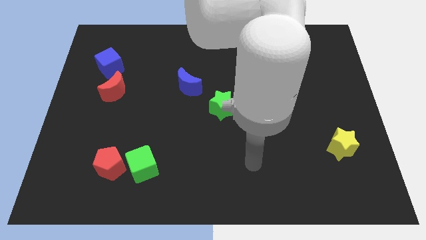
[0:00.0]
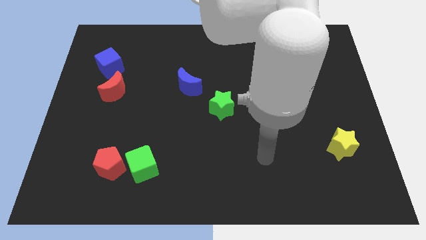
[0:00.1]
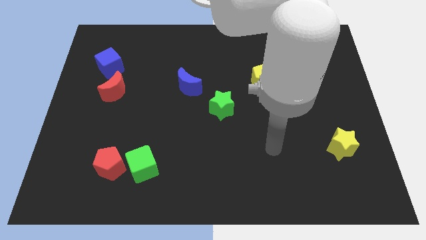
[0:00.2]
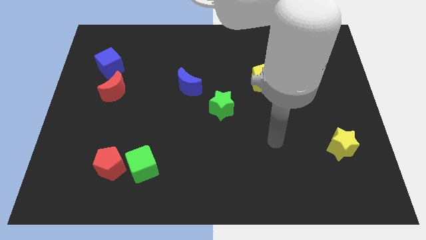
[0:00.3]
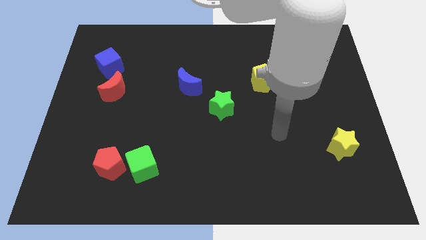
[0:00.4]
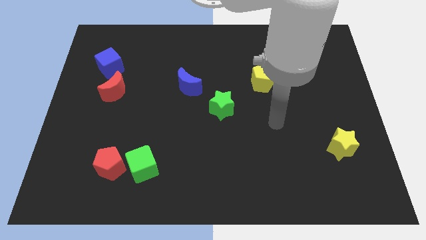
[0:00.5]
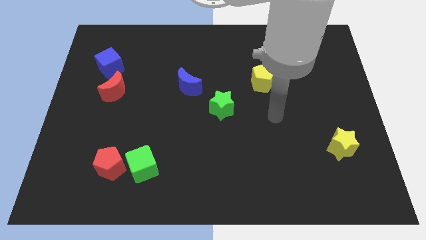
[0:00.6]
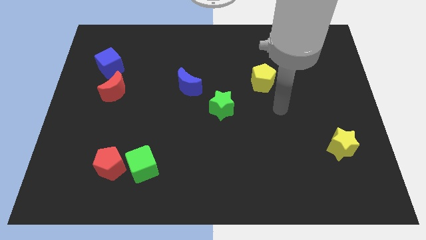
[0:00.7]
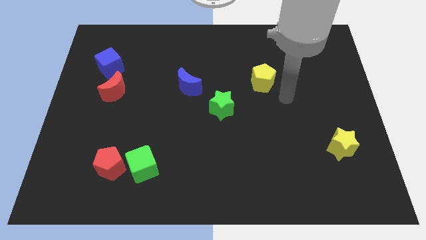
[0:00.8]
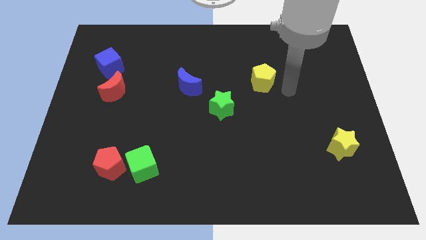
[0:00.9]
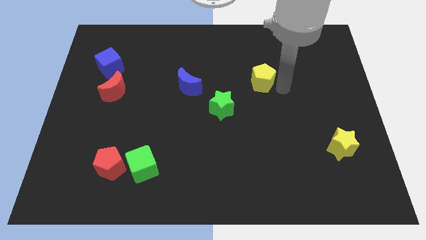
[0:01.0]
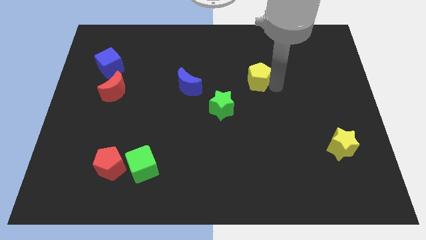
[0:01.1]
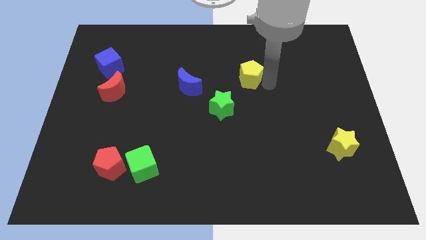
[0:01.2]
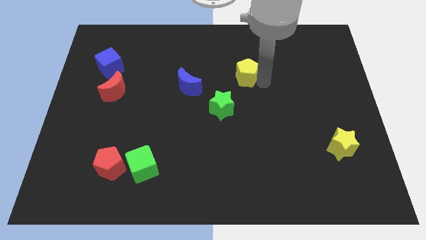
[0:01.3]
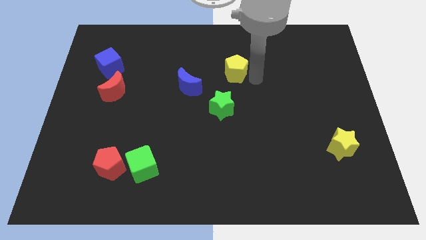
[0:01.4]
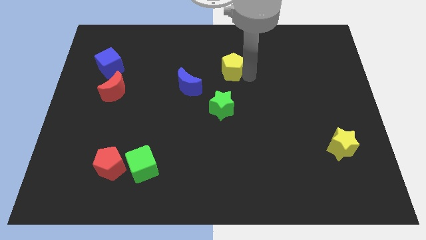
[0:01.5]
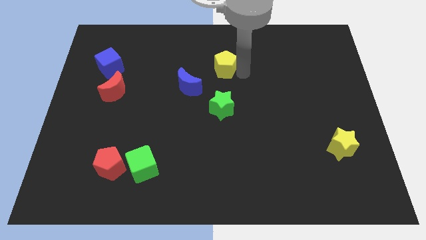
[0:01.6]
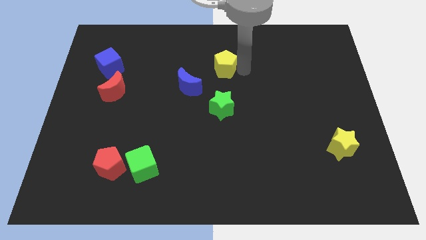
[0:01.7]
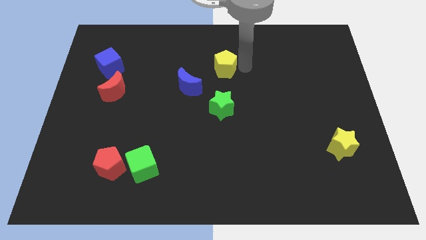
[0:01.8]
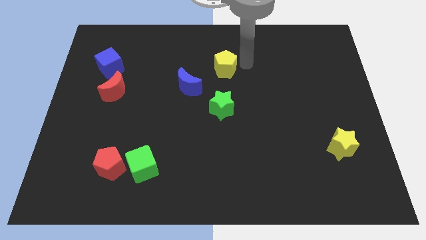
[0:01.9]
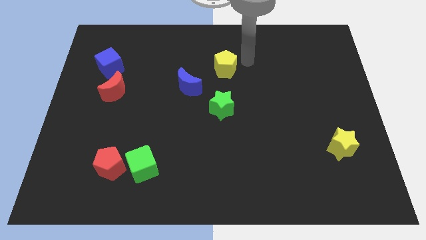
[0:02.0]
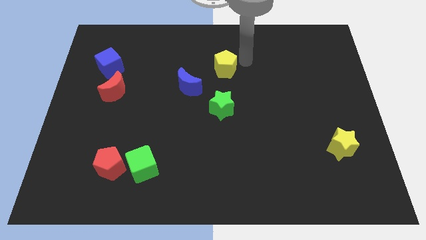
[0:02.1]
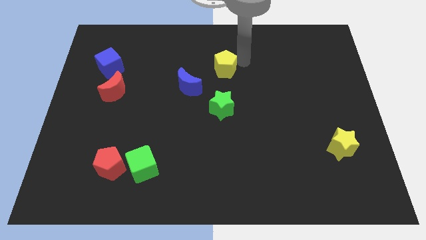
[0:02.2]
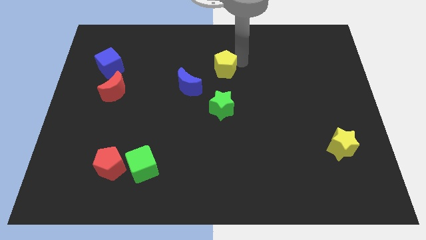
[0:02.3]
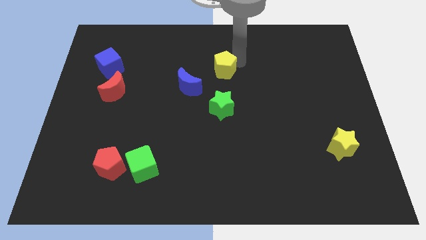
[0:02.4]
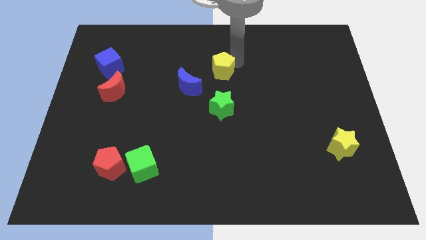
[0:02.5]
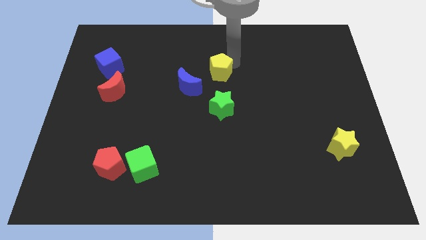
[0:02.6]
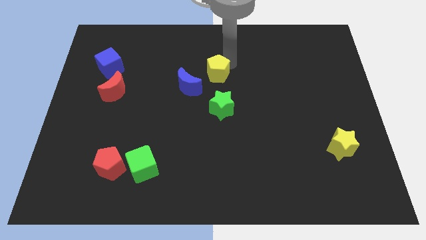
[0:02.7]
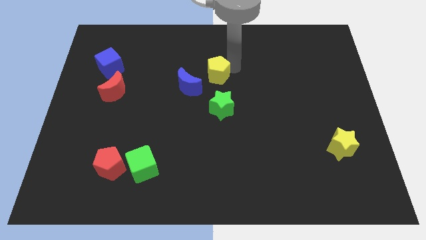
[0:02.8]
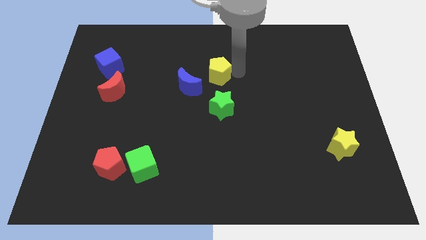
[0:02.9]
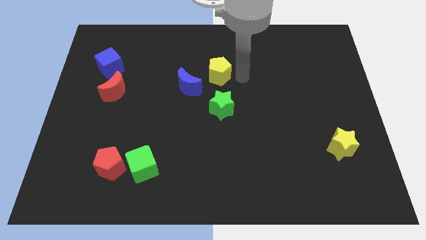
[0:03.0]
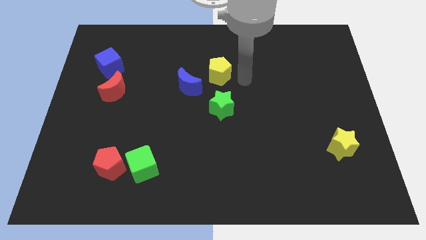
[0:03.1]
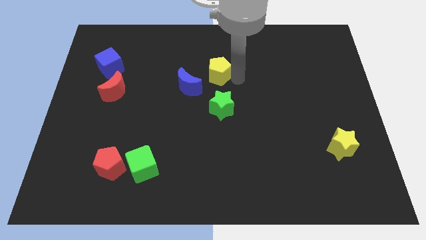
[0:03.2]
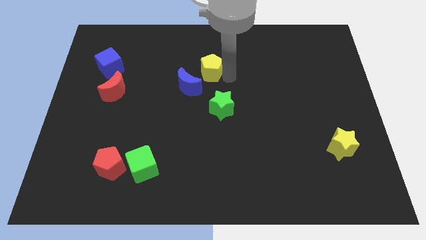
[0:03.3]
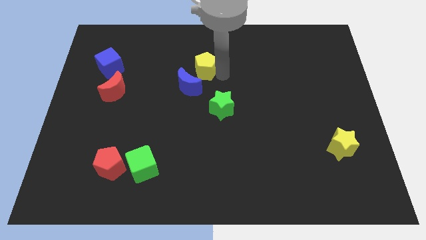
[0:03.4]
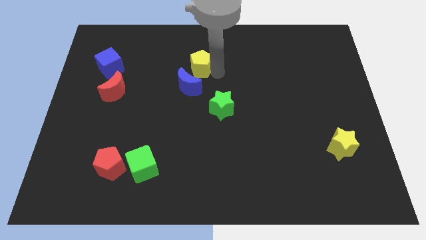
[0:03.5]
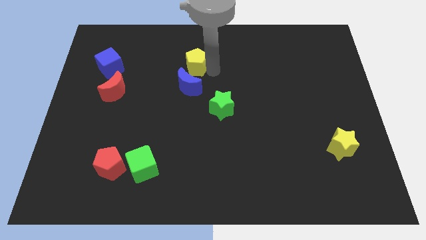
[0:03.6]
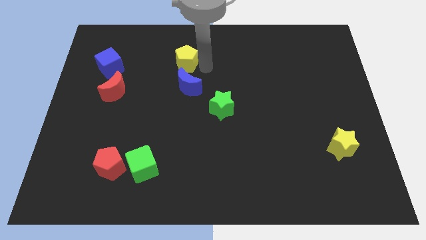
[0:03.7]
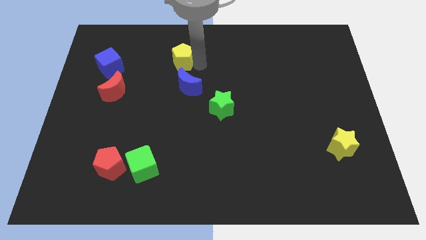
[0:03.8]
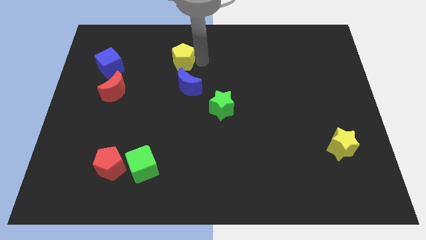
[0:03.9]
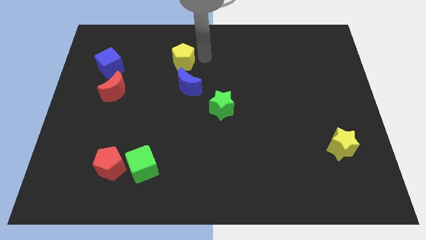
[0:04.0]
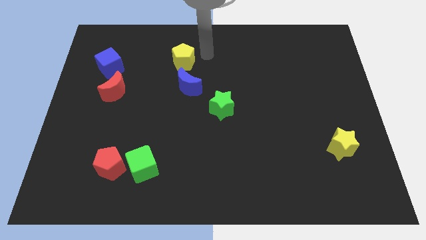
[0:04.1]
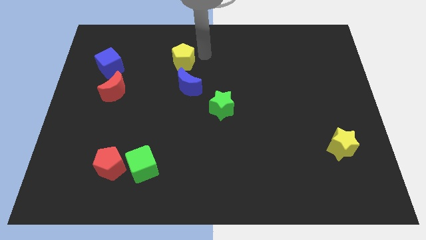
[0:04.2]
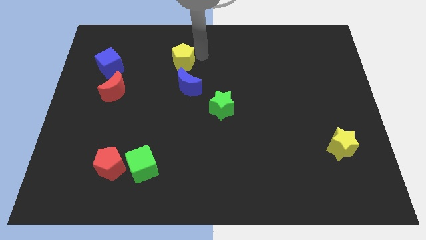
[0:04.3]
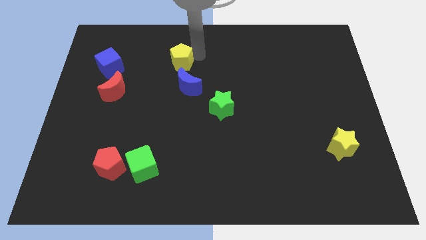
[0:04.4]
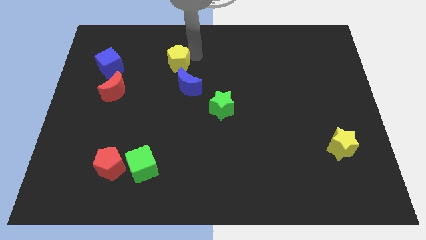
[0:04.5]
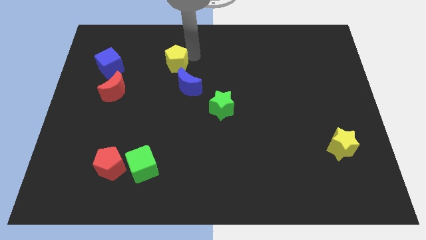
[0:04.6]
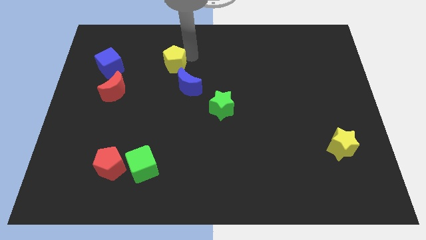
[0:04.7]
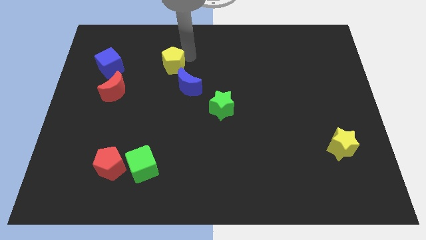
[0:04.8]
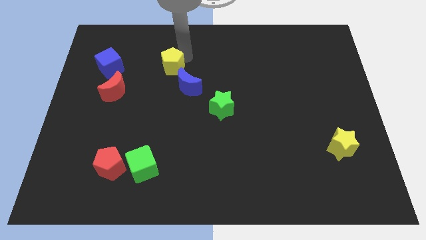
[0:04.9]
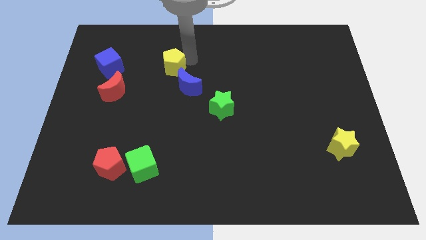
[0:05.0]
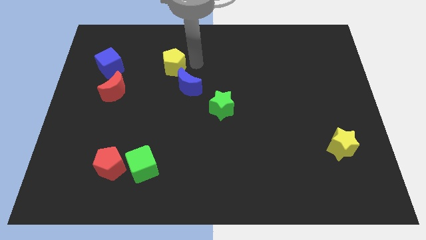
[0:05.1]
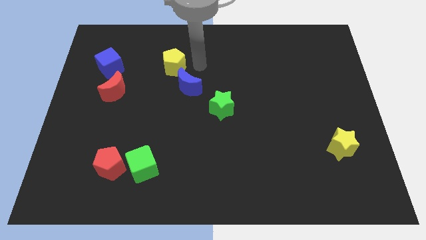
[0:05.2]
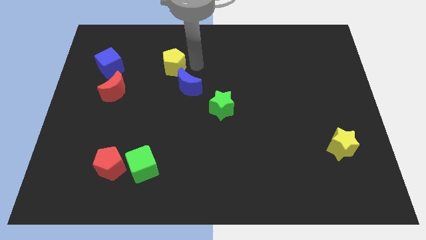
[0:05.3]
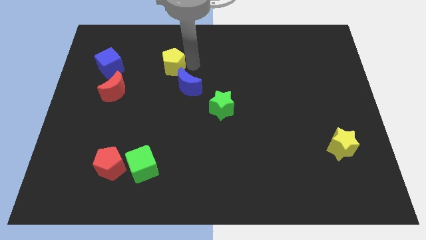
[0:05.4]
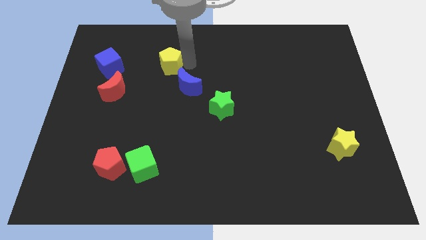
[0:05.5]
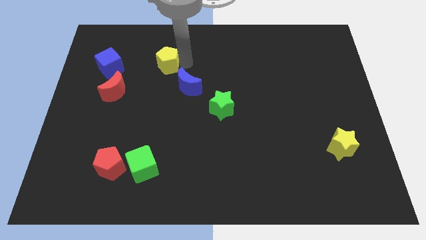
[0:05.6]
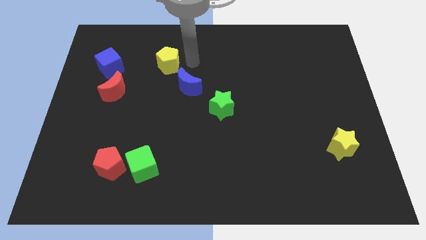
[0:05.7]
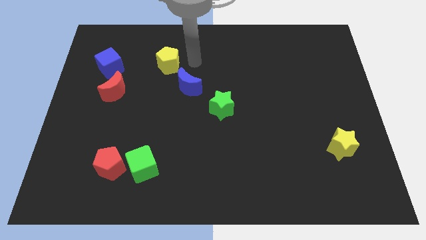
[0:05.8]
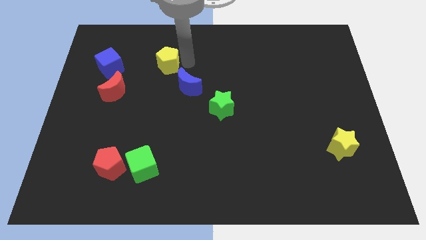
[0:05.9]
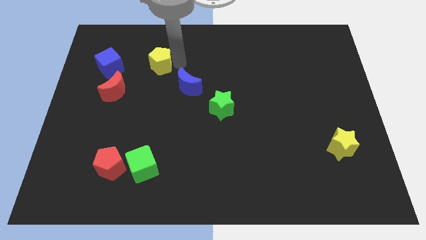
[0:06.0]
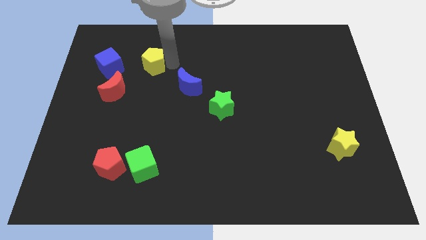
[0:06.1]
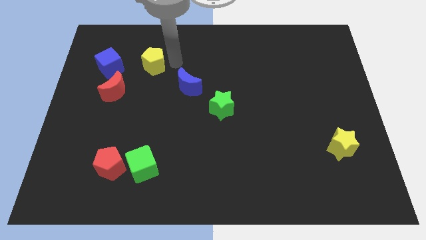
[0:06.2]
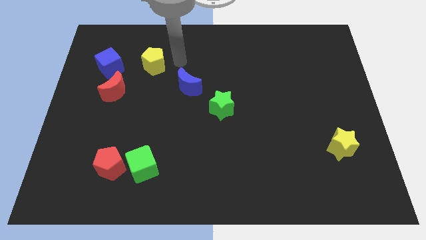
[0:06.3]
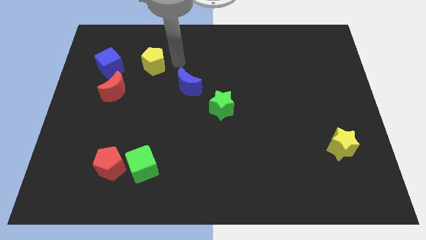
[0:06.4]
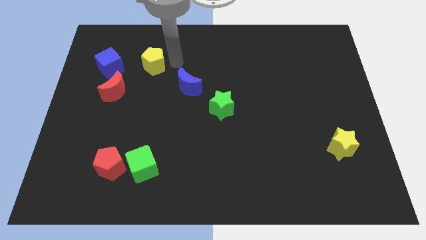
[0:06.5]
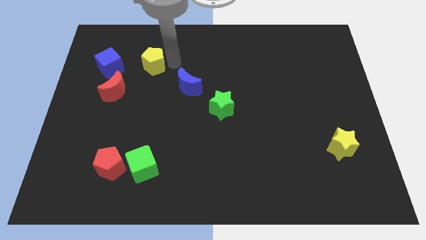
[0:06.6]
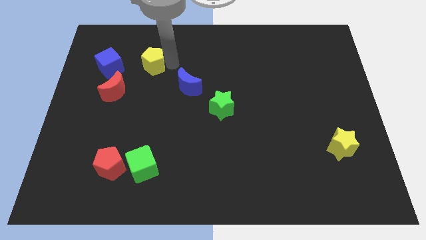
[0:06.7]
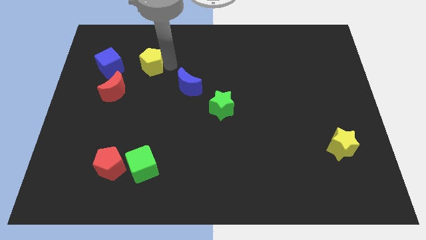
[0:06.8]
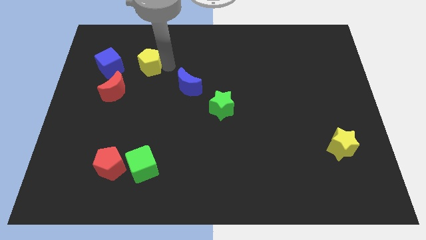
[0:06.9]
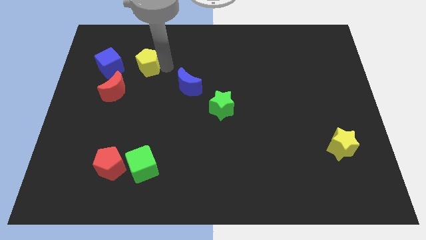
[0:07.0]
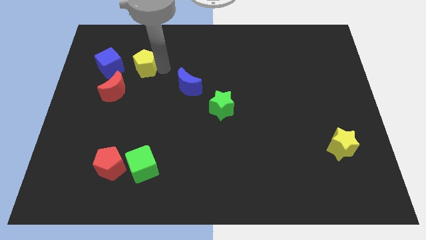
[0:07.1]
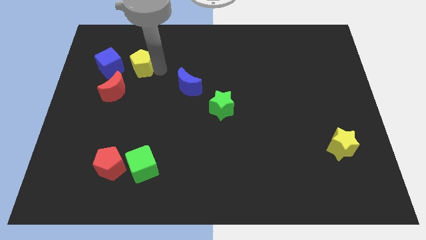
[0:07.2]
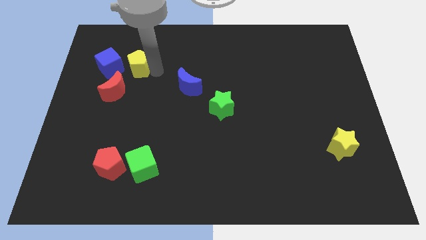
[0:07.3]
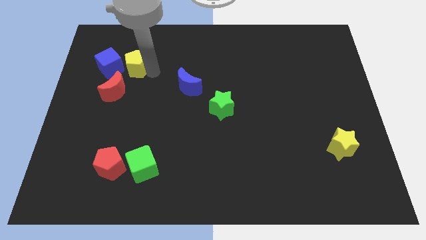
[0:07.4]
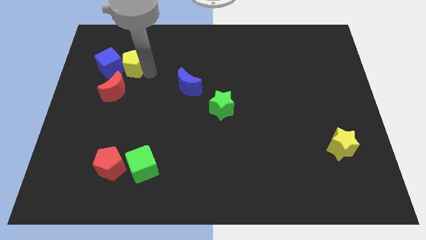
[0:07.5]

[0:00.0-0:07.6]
slide the yellow pentagon next to the blue cube
